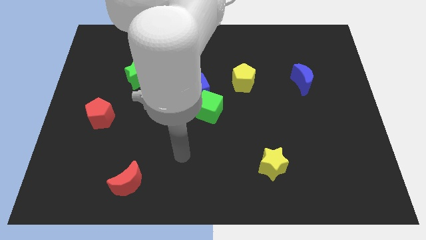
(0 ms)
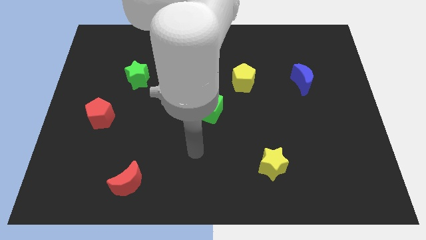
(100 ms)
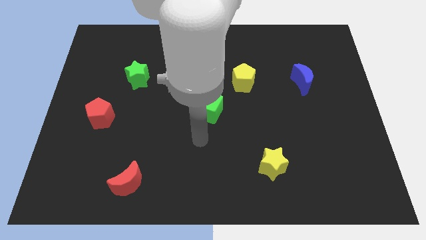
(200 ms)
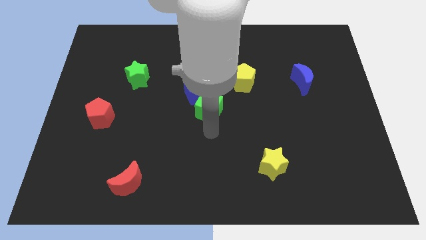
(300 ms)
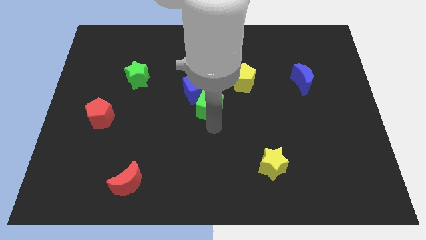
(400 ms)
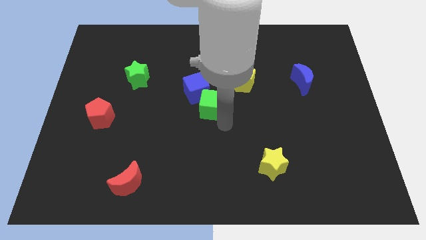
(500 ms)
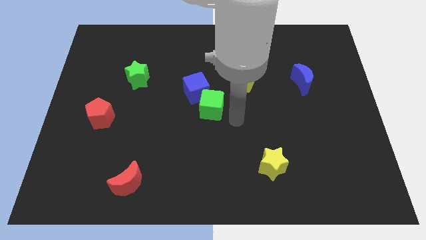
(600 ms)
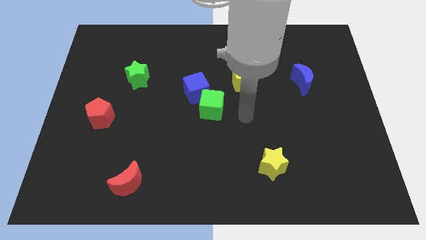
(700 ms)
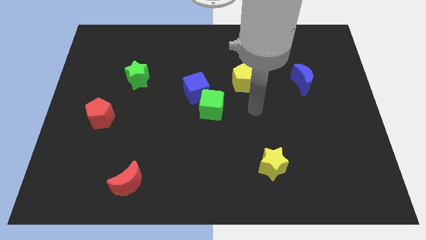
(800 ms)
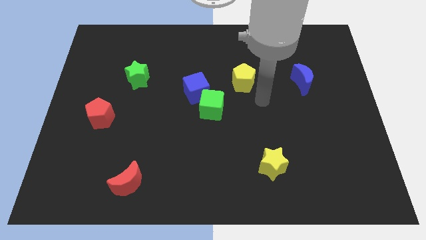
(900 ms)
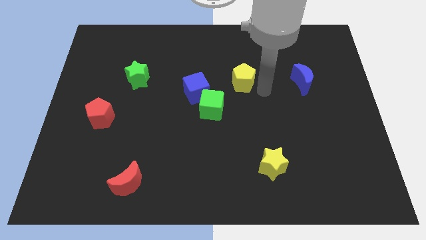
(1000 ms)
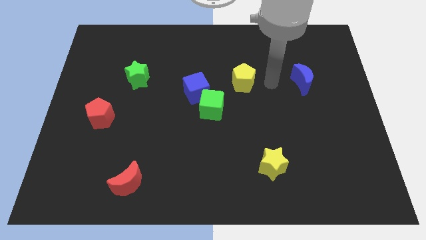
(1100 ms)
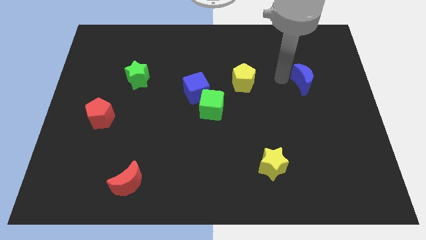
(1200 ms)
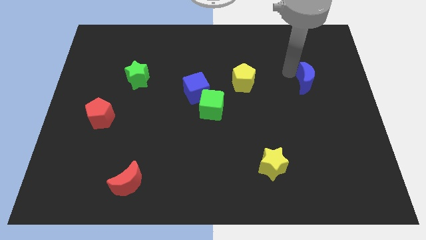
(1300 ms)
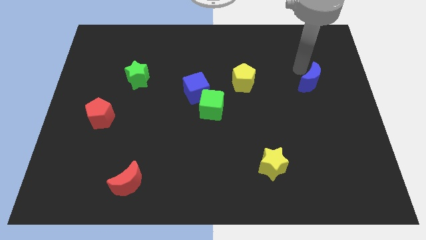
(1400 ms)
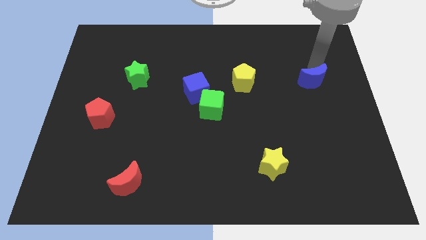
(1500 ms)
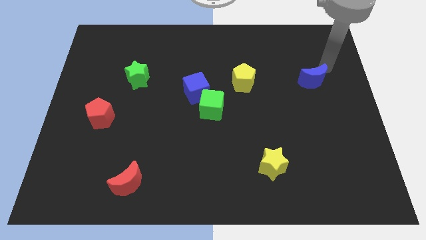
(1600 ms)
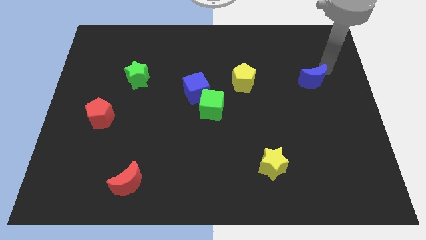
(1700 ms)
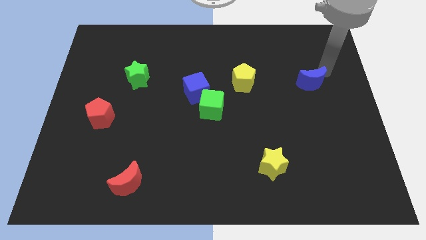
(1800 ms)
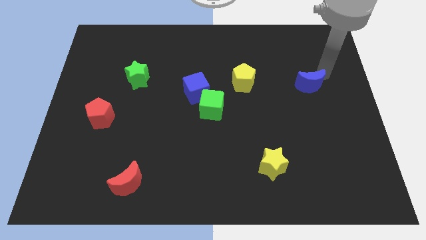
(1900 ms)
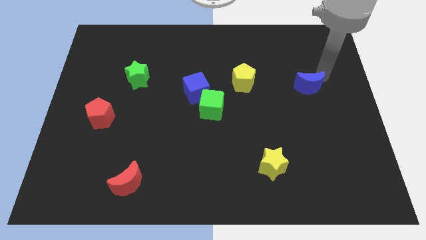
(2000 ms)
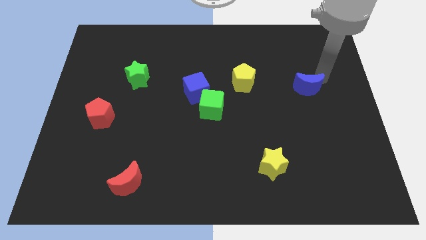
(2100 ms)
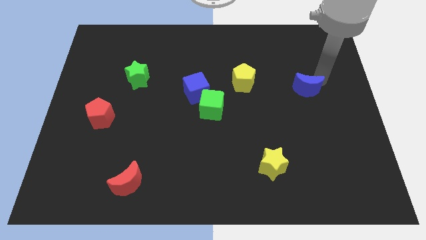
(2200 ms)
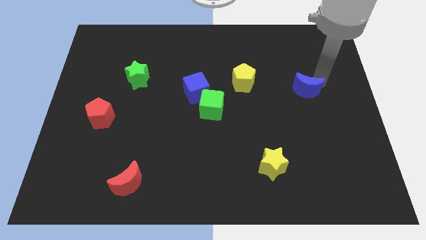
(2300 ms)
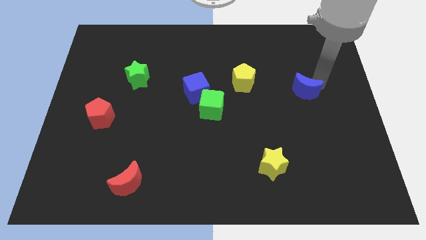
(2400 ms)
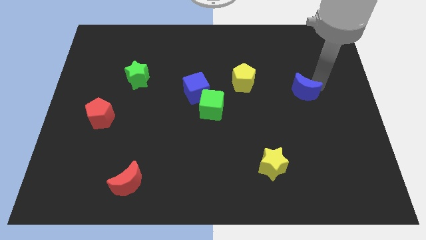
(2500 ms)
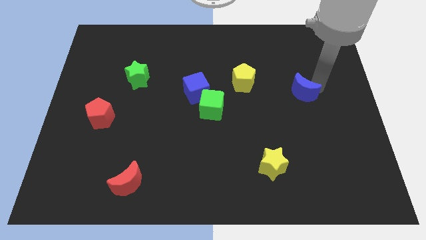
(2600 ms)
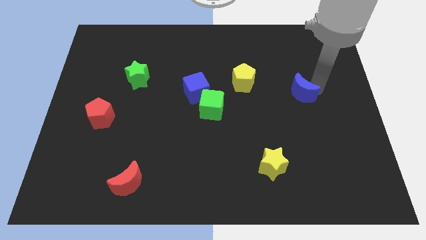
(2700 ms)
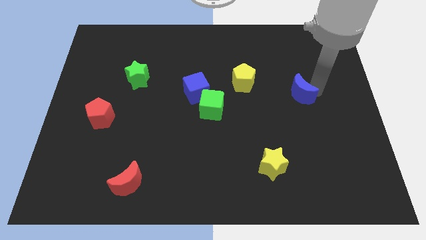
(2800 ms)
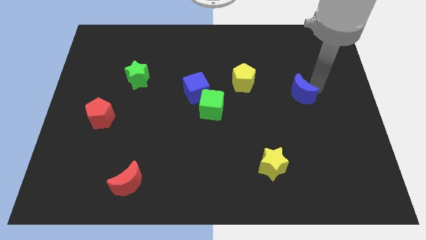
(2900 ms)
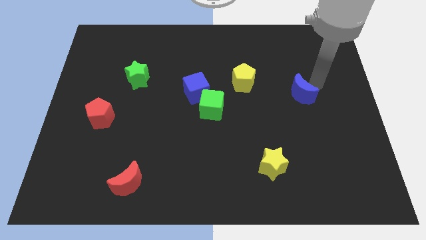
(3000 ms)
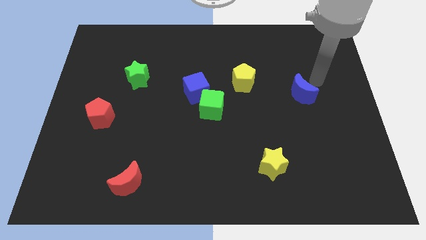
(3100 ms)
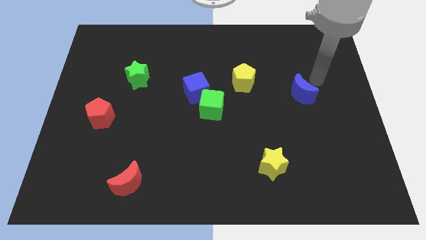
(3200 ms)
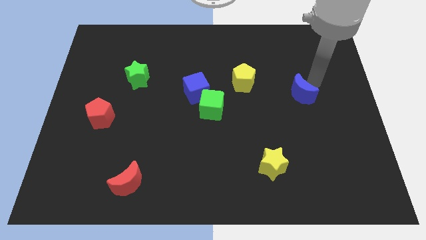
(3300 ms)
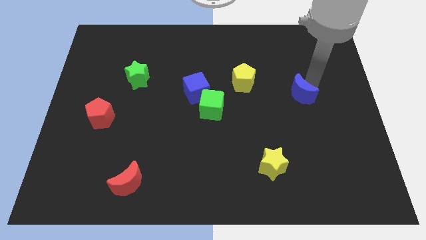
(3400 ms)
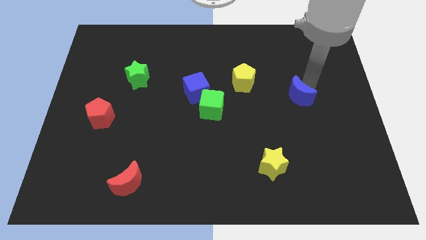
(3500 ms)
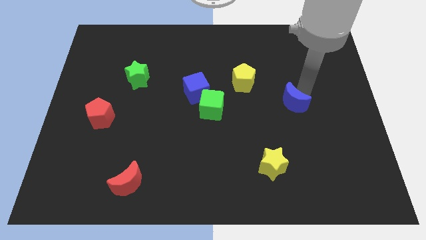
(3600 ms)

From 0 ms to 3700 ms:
slightly push the blue moon diagonally down and left

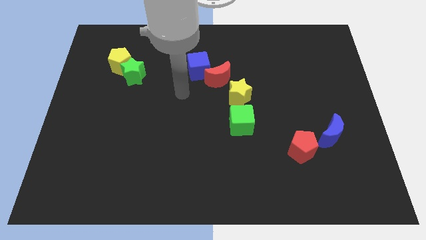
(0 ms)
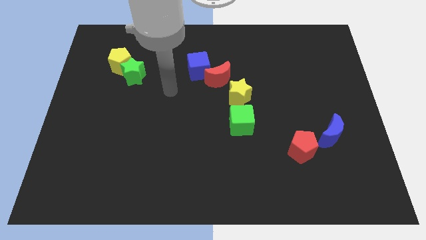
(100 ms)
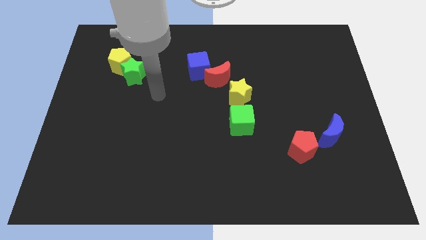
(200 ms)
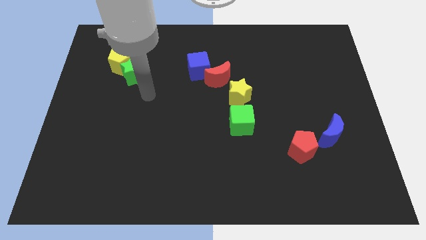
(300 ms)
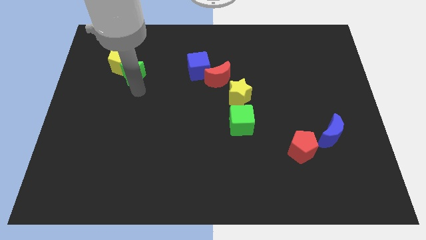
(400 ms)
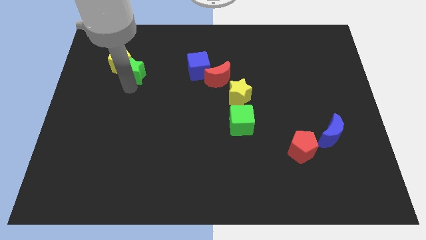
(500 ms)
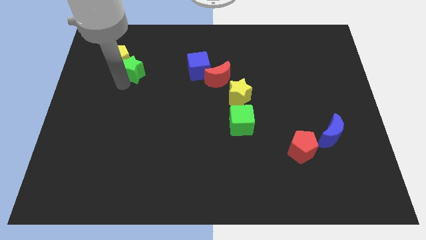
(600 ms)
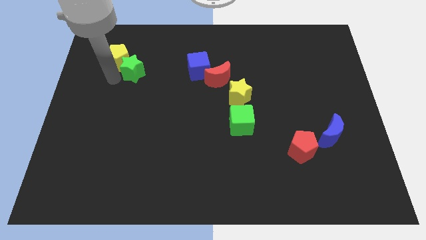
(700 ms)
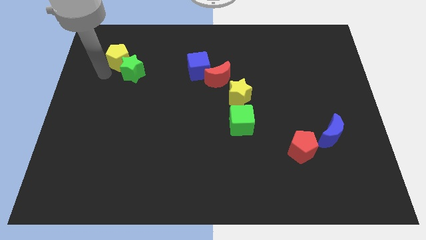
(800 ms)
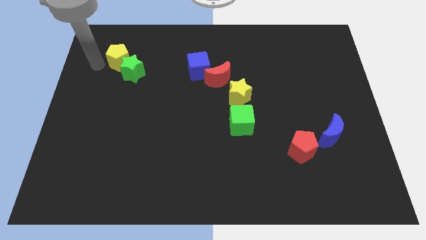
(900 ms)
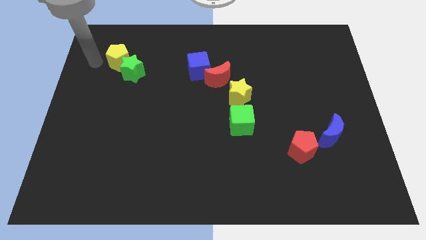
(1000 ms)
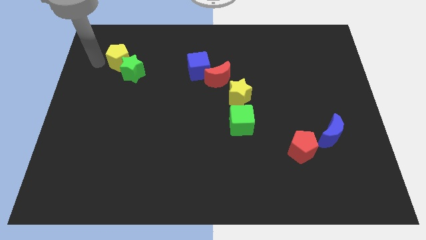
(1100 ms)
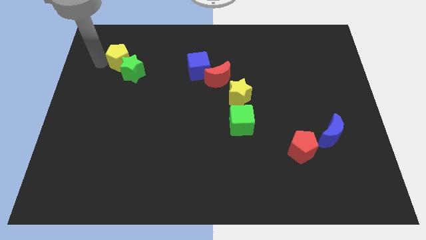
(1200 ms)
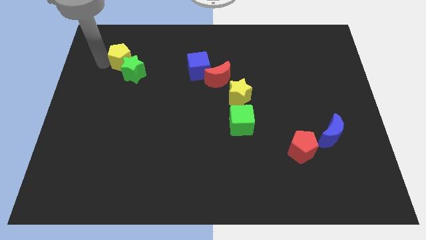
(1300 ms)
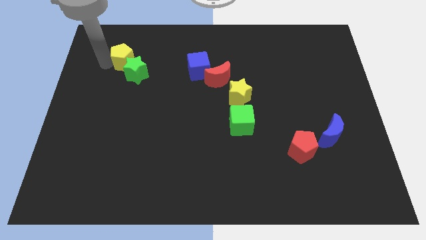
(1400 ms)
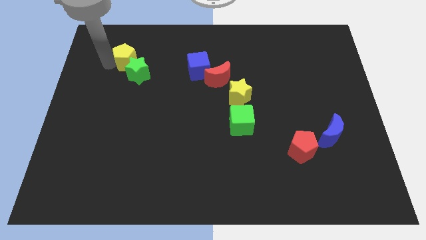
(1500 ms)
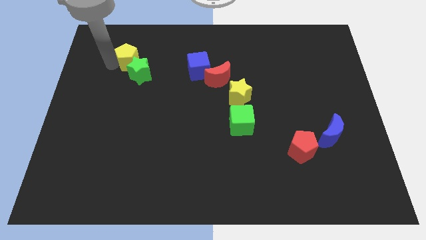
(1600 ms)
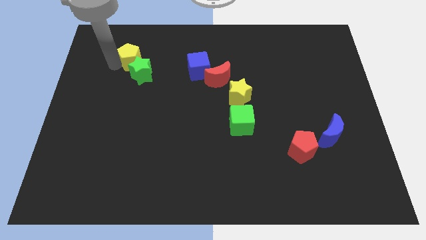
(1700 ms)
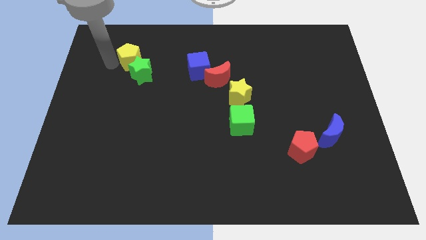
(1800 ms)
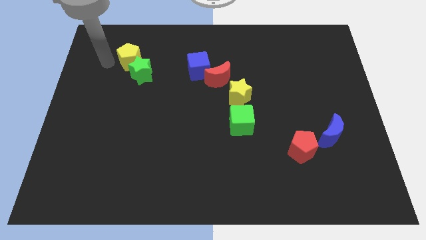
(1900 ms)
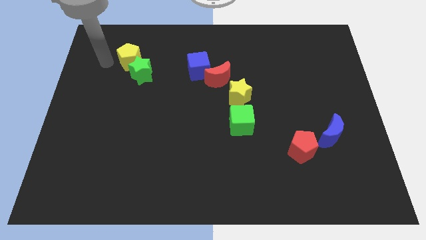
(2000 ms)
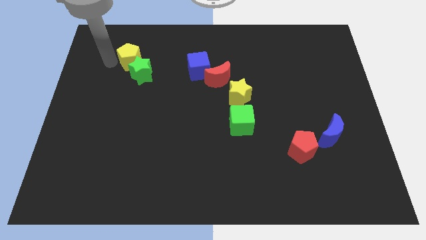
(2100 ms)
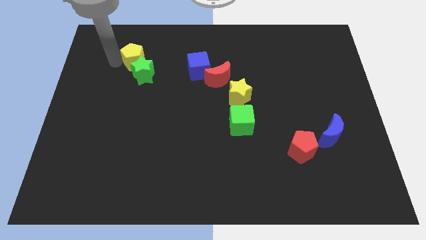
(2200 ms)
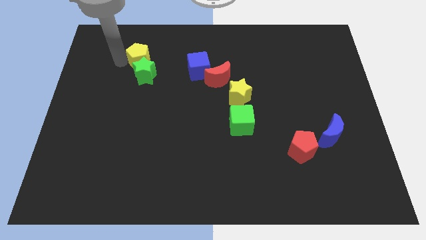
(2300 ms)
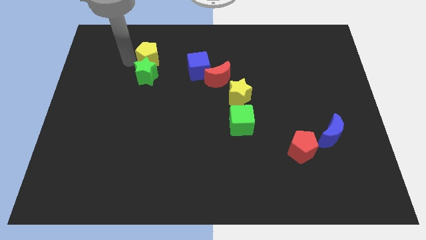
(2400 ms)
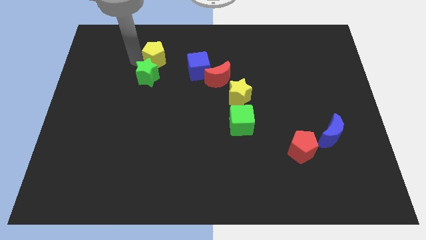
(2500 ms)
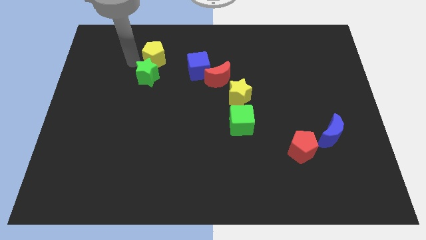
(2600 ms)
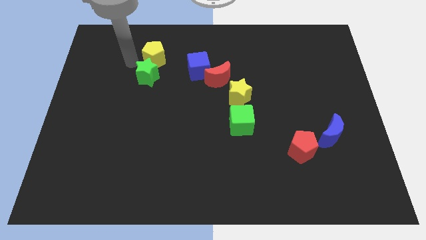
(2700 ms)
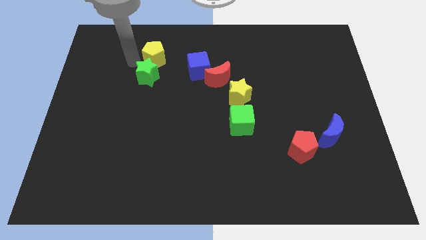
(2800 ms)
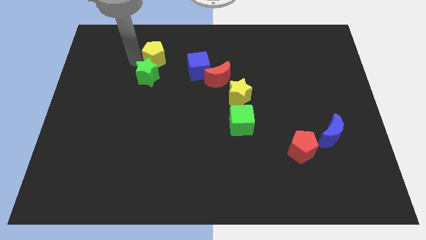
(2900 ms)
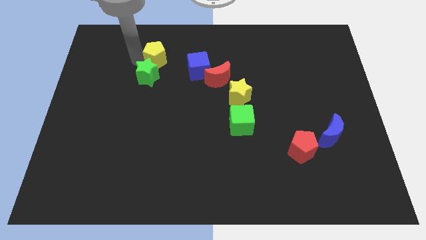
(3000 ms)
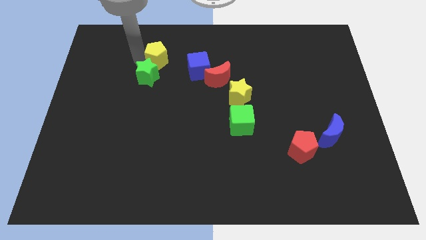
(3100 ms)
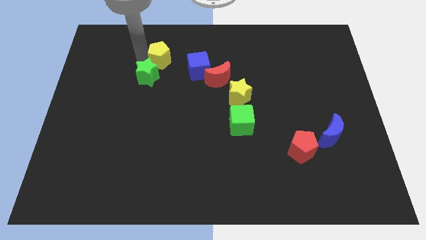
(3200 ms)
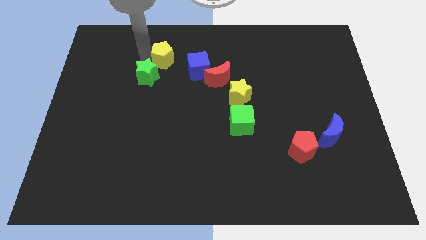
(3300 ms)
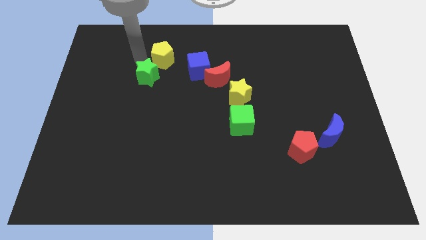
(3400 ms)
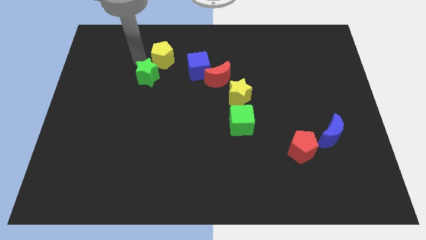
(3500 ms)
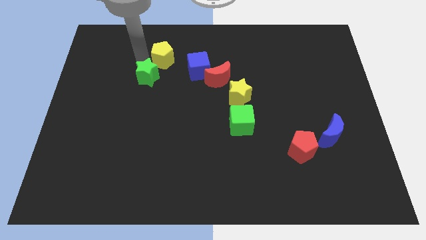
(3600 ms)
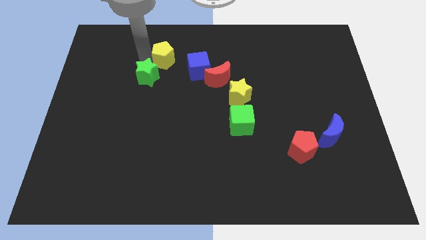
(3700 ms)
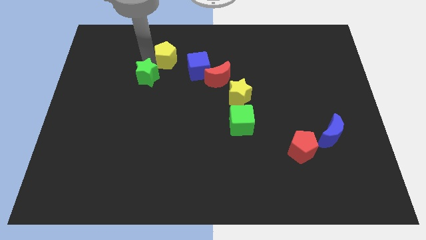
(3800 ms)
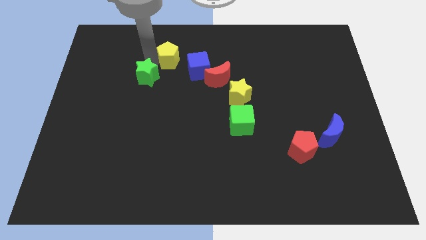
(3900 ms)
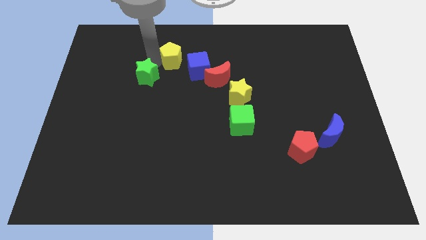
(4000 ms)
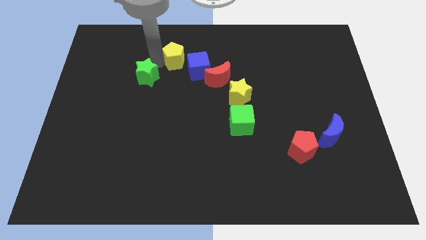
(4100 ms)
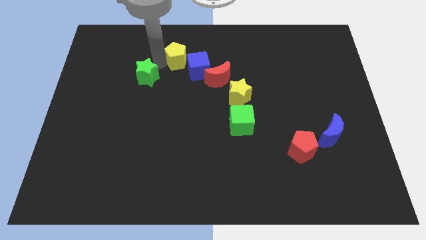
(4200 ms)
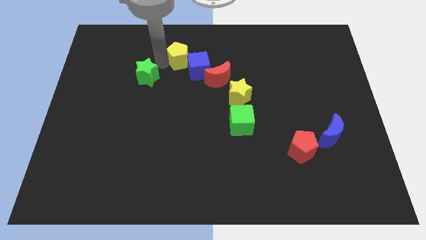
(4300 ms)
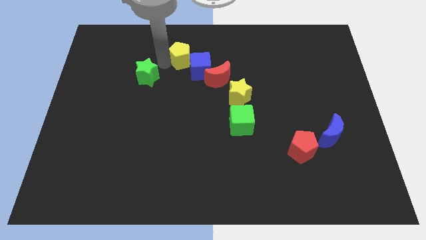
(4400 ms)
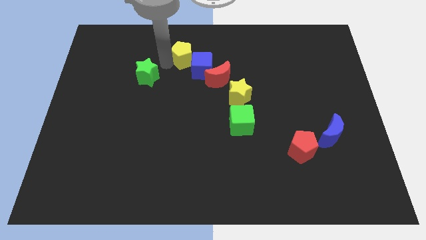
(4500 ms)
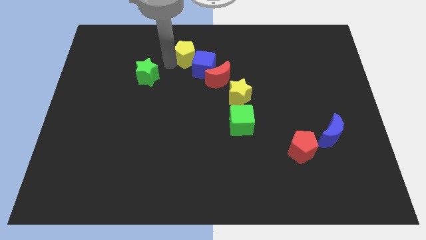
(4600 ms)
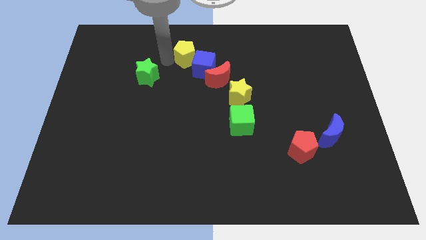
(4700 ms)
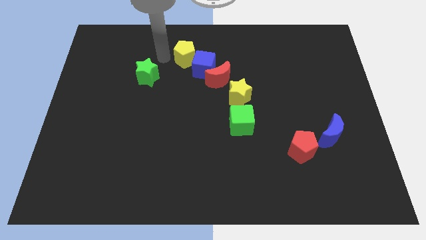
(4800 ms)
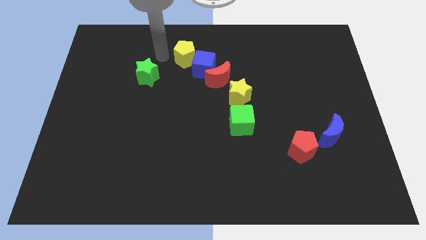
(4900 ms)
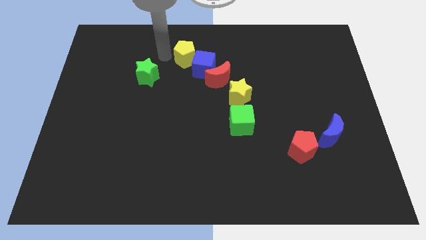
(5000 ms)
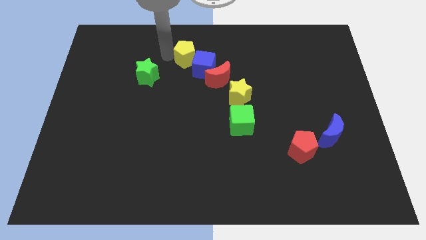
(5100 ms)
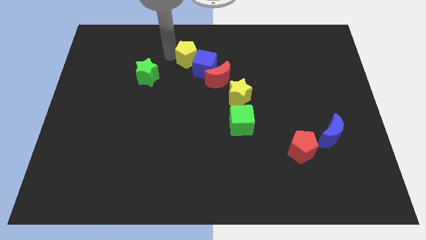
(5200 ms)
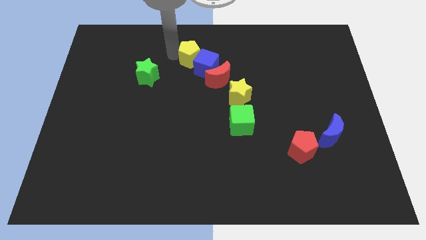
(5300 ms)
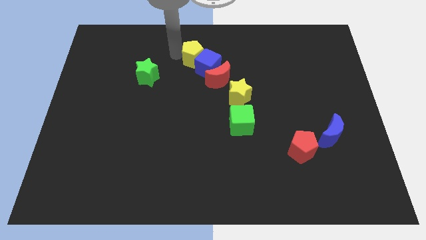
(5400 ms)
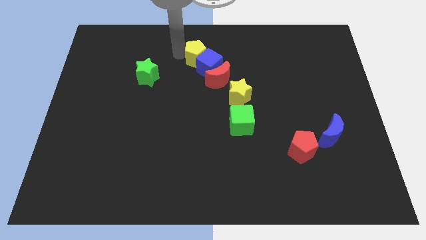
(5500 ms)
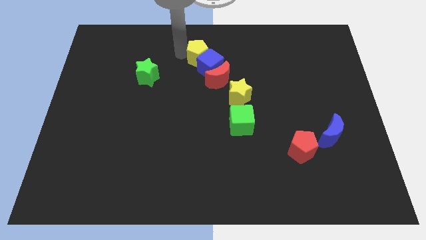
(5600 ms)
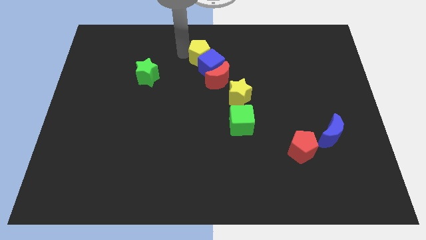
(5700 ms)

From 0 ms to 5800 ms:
push the yellow pentagon to the right
